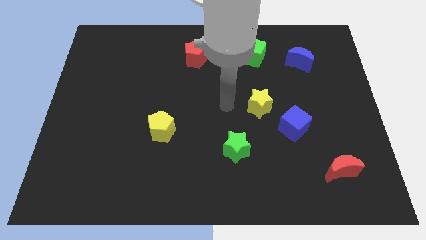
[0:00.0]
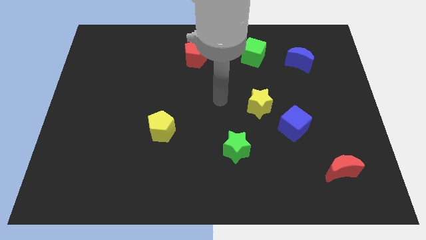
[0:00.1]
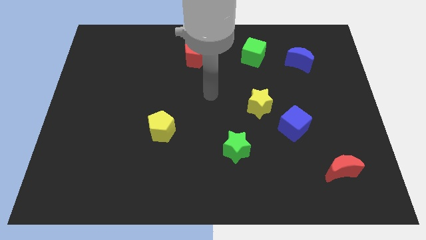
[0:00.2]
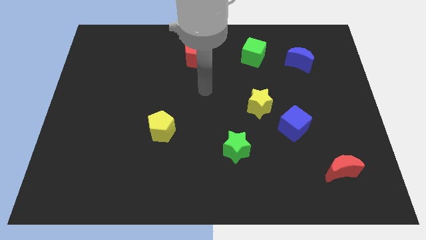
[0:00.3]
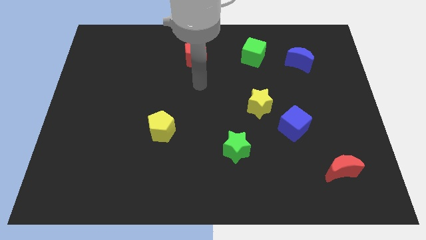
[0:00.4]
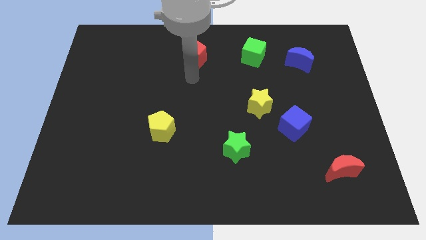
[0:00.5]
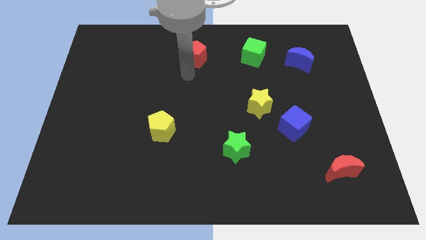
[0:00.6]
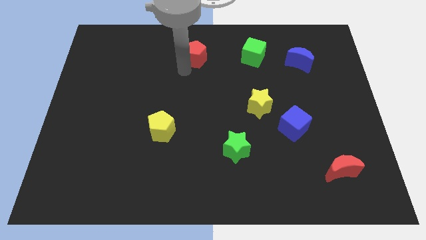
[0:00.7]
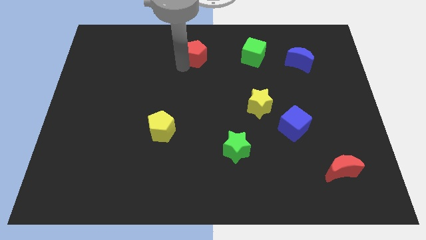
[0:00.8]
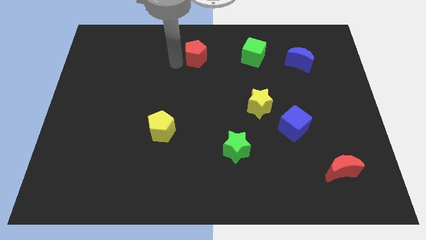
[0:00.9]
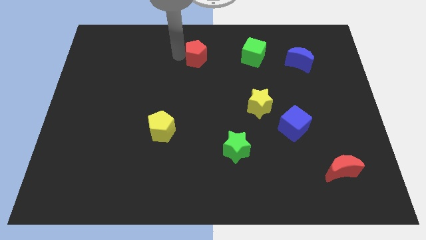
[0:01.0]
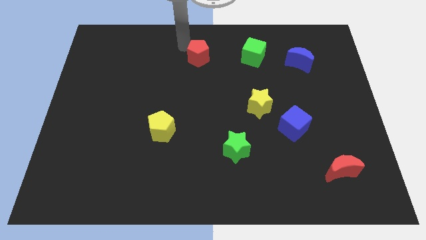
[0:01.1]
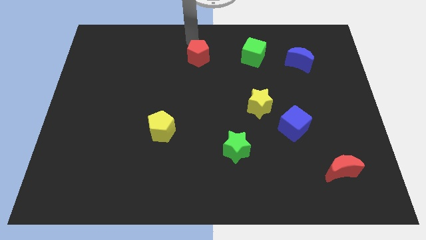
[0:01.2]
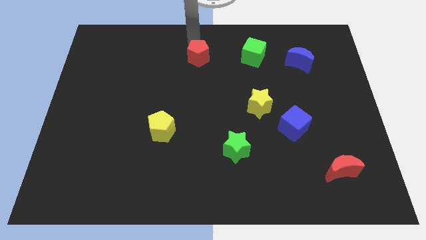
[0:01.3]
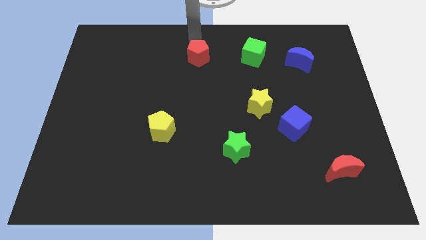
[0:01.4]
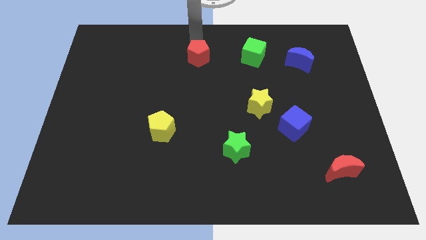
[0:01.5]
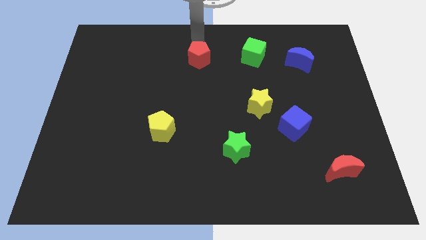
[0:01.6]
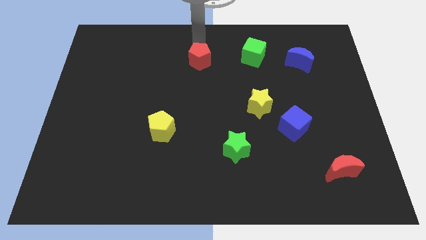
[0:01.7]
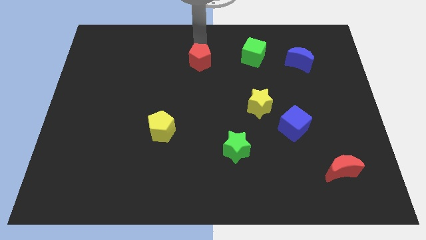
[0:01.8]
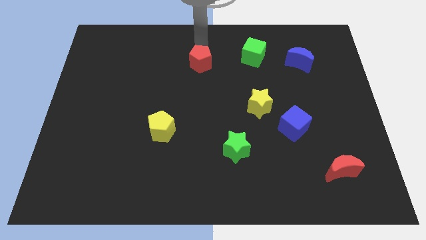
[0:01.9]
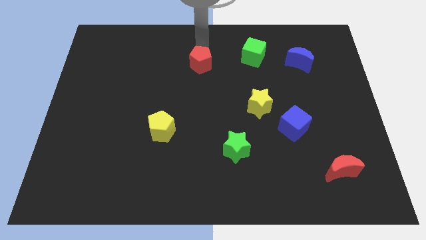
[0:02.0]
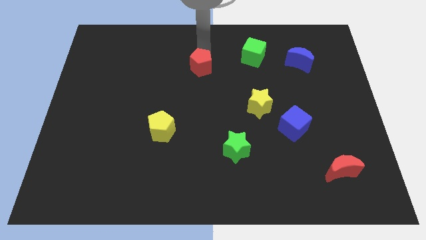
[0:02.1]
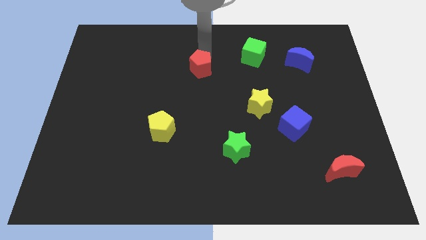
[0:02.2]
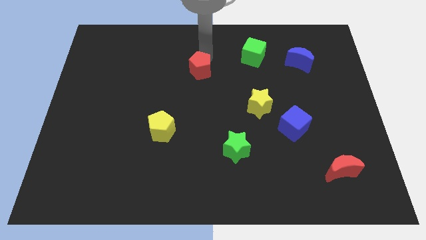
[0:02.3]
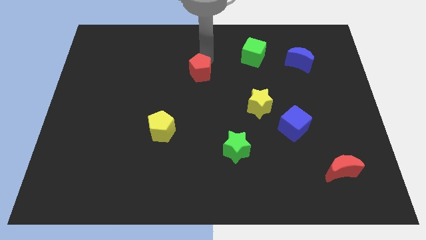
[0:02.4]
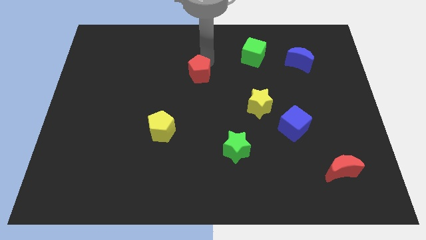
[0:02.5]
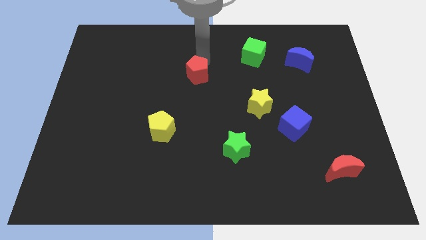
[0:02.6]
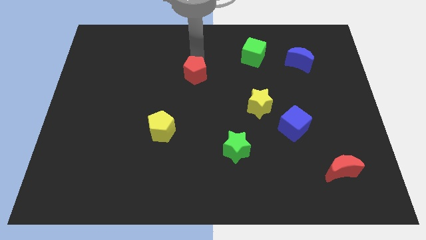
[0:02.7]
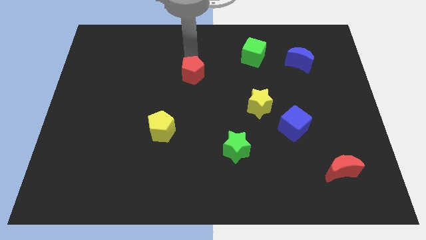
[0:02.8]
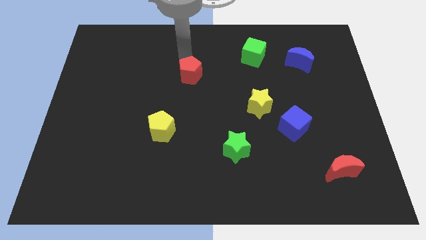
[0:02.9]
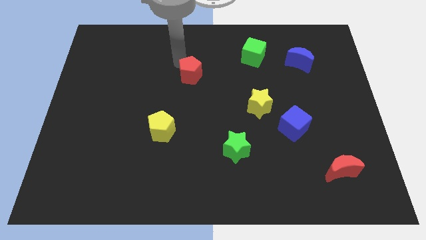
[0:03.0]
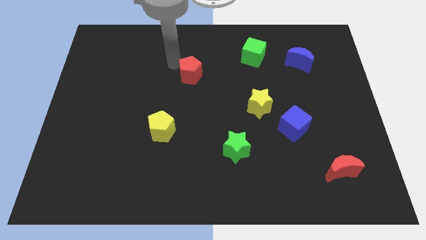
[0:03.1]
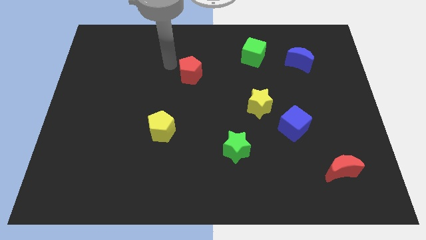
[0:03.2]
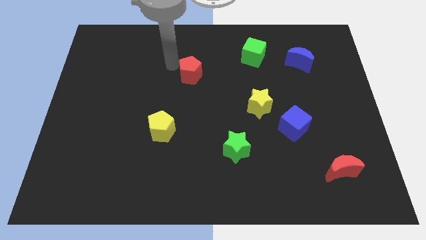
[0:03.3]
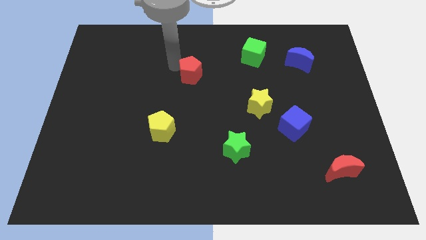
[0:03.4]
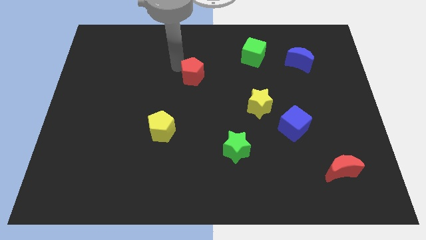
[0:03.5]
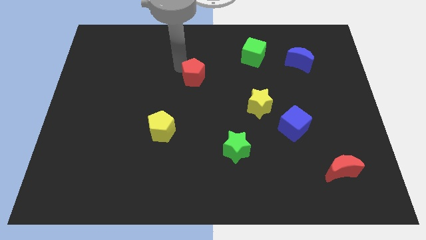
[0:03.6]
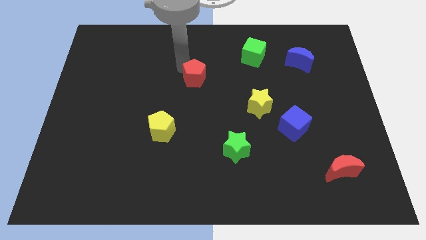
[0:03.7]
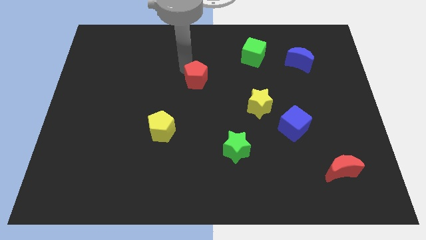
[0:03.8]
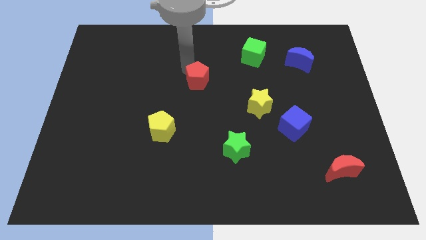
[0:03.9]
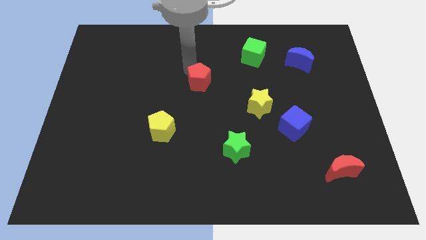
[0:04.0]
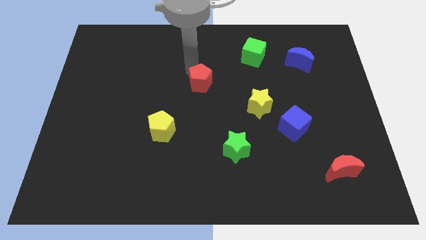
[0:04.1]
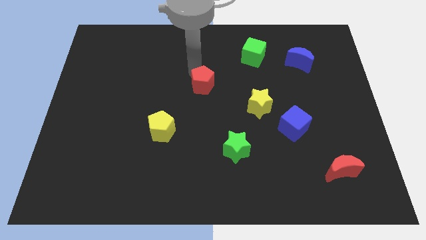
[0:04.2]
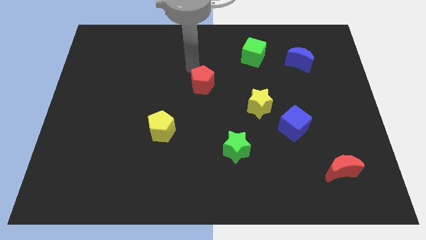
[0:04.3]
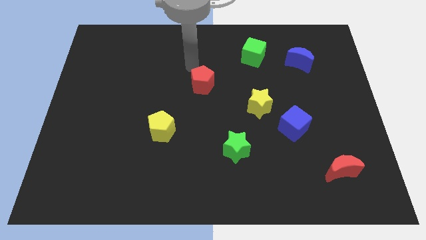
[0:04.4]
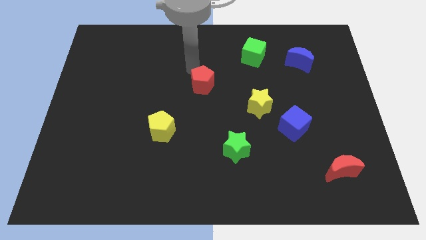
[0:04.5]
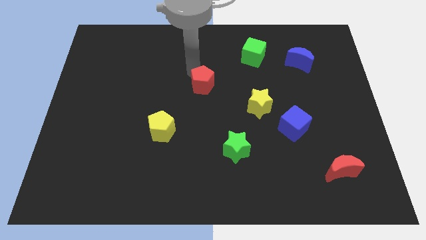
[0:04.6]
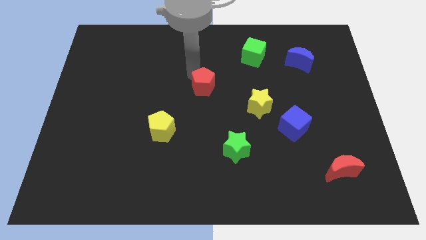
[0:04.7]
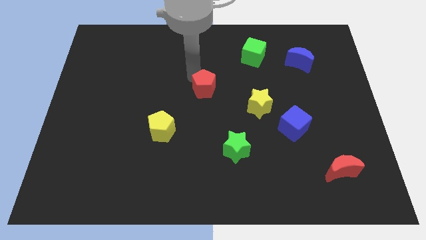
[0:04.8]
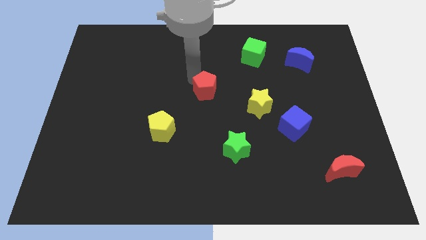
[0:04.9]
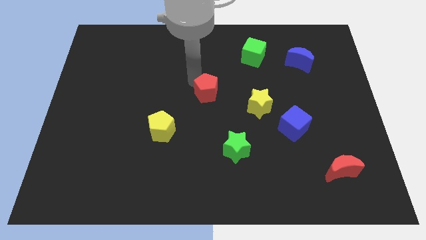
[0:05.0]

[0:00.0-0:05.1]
put the red pentagon just left of the yellow star

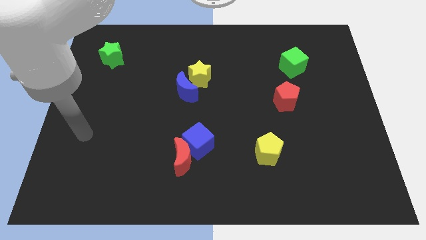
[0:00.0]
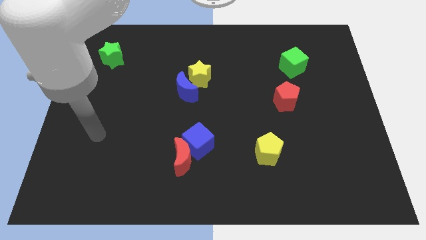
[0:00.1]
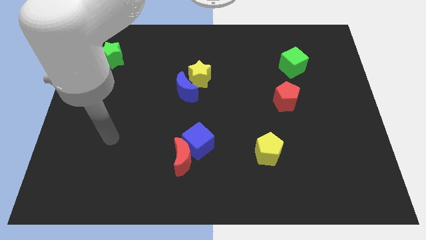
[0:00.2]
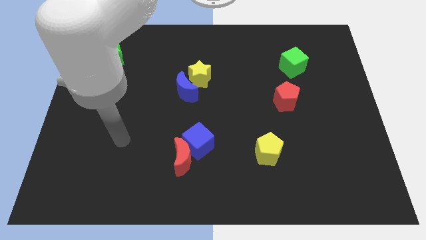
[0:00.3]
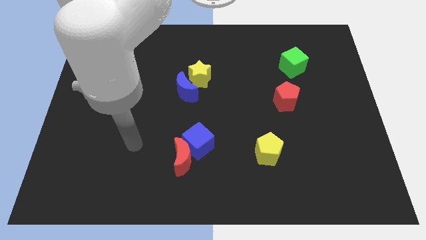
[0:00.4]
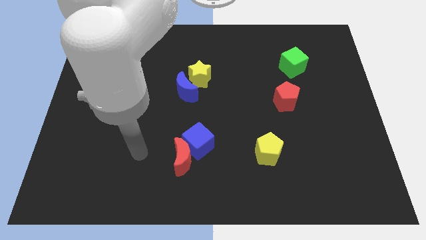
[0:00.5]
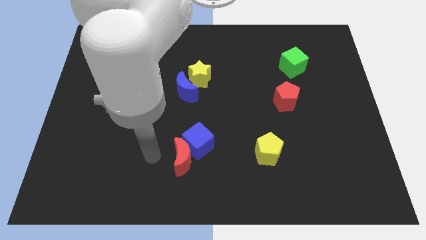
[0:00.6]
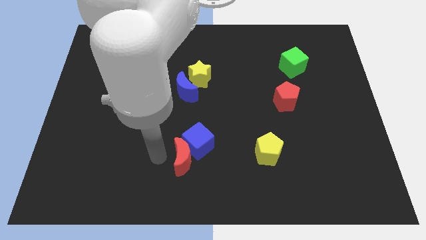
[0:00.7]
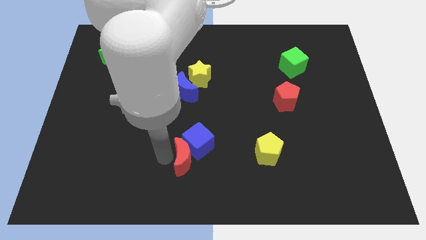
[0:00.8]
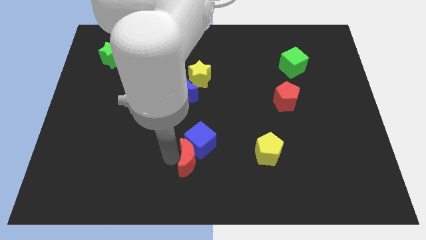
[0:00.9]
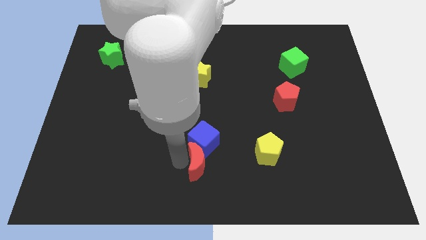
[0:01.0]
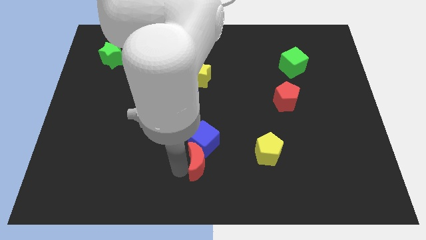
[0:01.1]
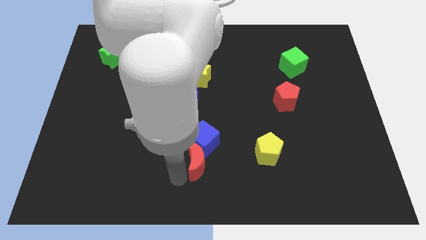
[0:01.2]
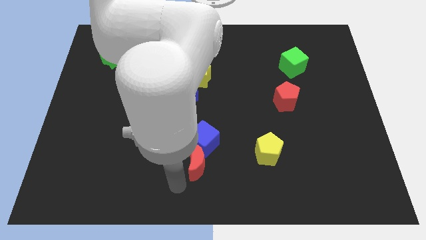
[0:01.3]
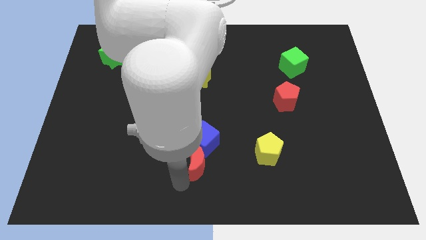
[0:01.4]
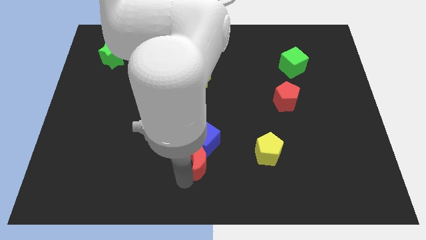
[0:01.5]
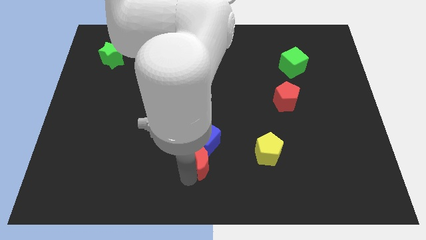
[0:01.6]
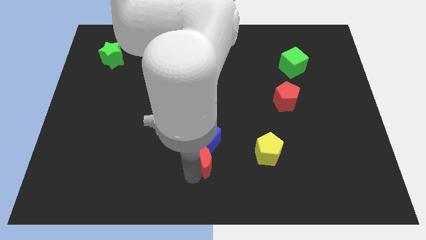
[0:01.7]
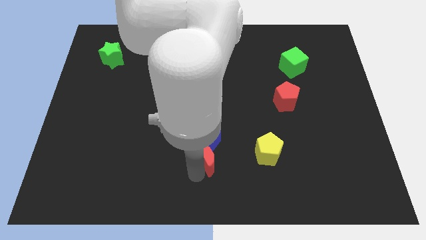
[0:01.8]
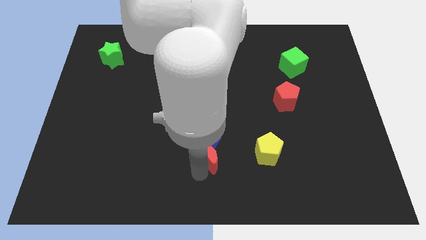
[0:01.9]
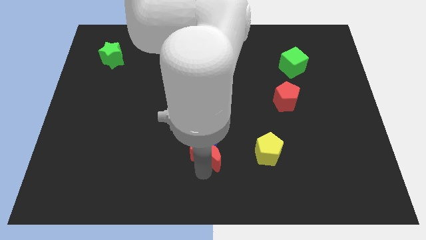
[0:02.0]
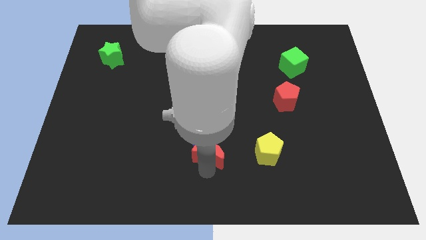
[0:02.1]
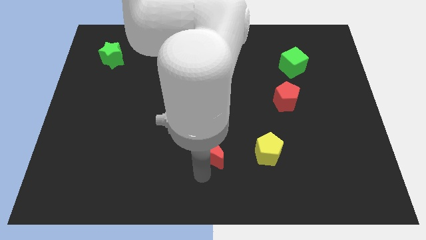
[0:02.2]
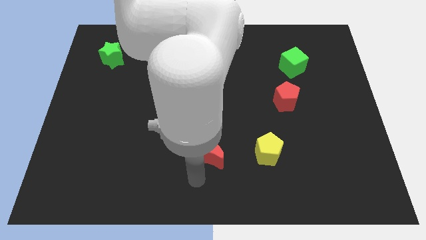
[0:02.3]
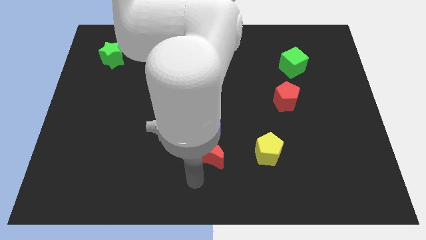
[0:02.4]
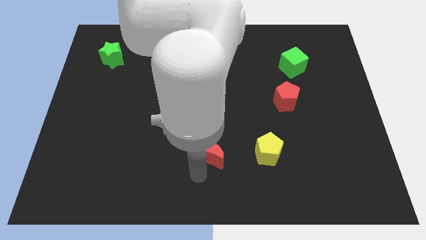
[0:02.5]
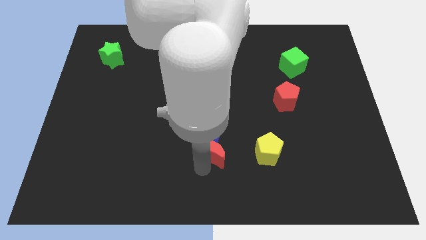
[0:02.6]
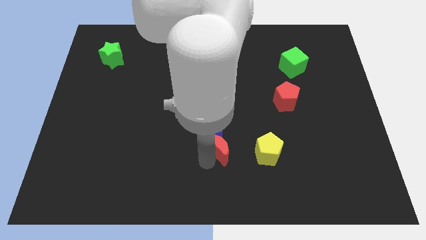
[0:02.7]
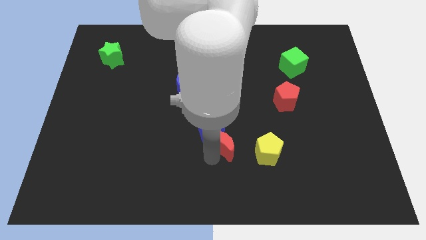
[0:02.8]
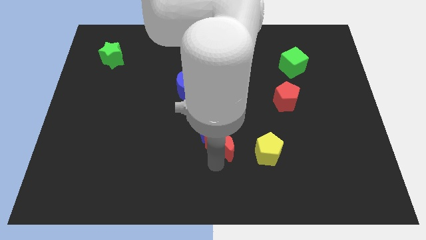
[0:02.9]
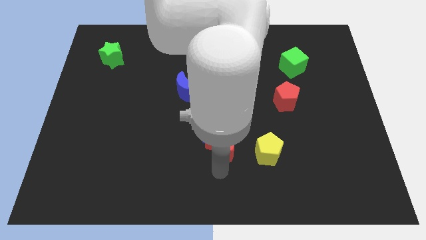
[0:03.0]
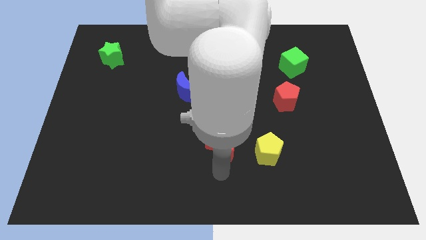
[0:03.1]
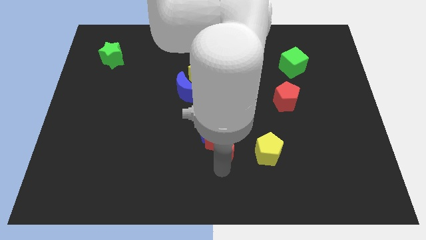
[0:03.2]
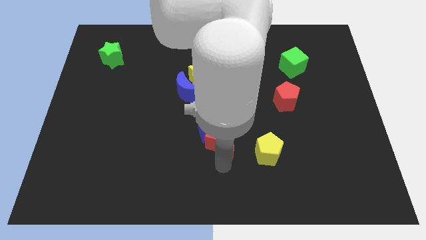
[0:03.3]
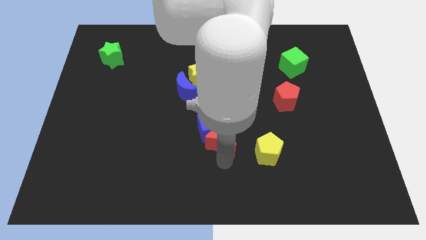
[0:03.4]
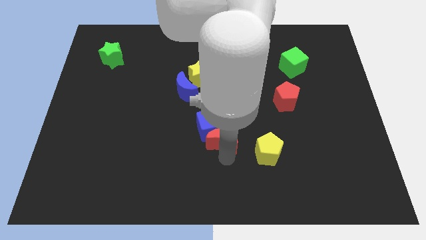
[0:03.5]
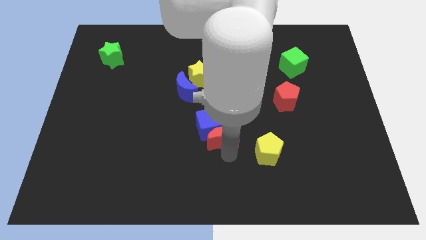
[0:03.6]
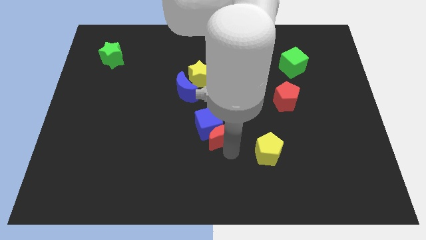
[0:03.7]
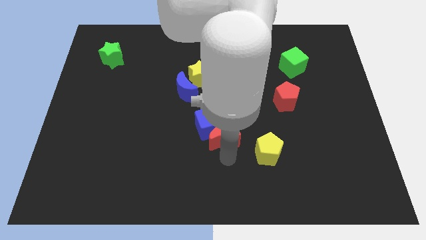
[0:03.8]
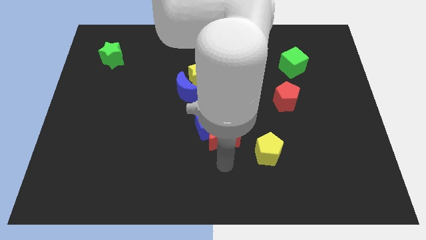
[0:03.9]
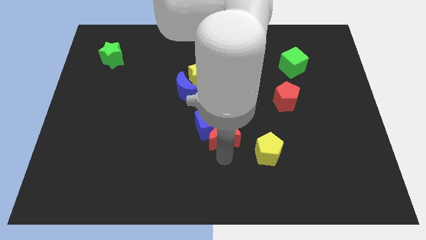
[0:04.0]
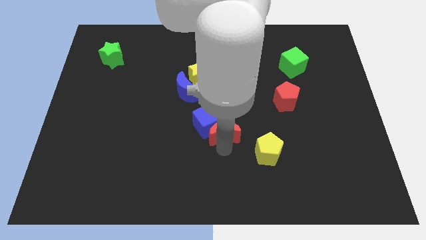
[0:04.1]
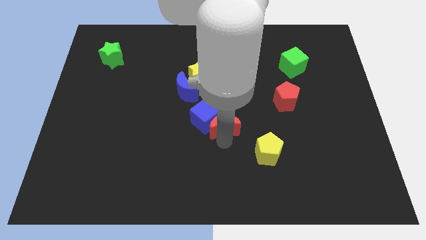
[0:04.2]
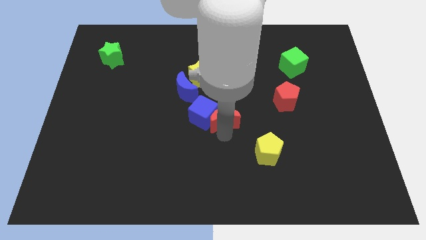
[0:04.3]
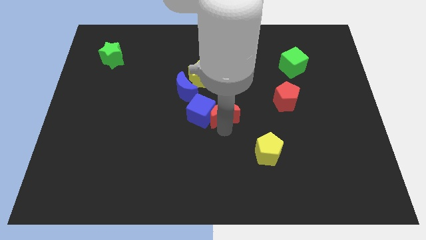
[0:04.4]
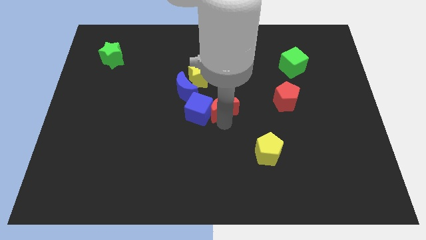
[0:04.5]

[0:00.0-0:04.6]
move the red moon to the bottom right side of the yellow star
